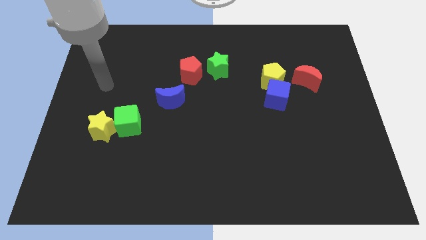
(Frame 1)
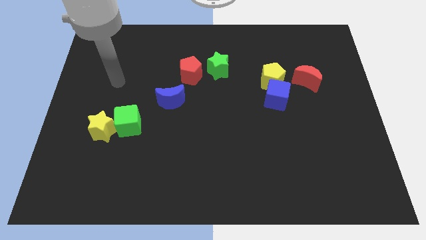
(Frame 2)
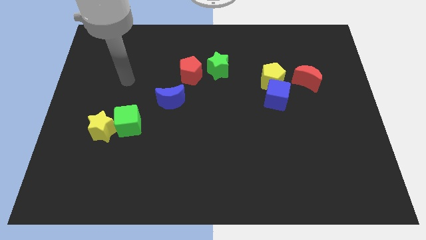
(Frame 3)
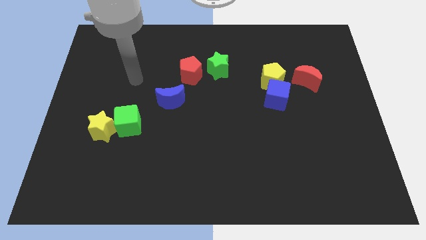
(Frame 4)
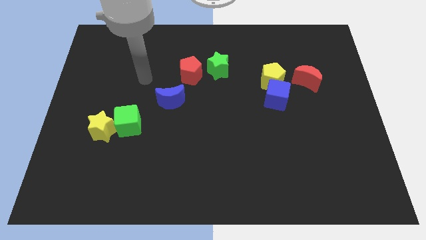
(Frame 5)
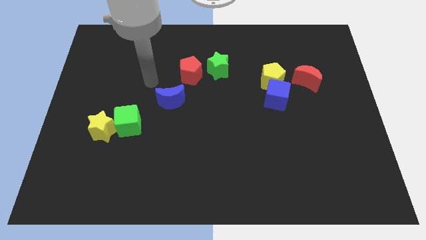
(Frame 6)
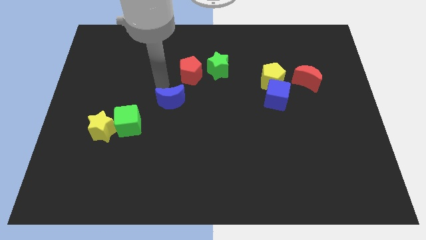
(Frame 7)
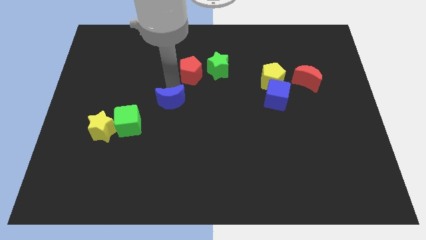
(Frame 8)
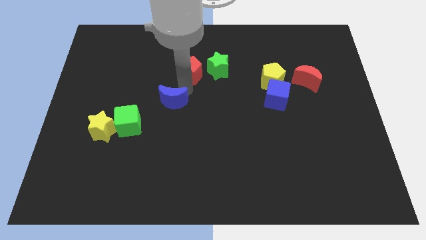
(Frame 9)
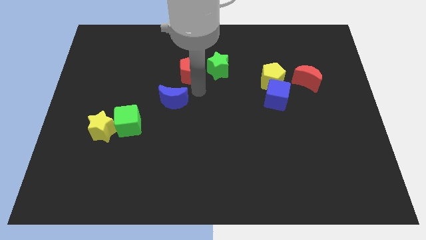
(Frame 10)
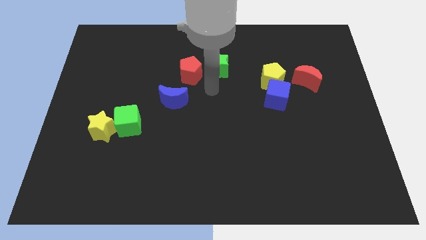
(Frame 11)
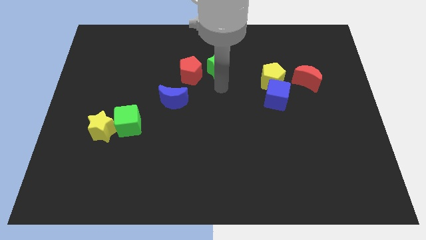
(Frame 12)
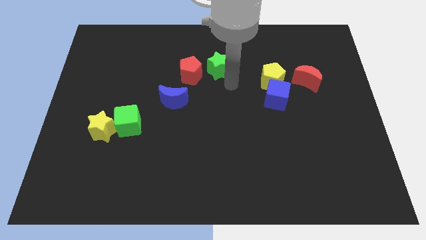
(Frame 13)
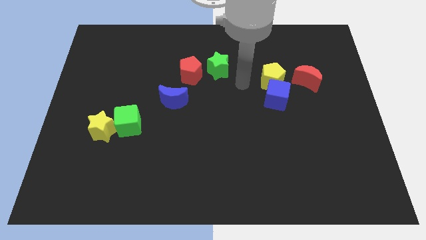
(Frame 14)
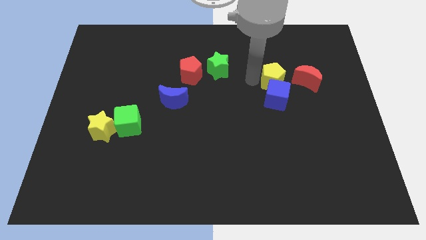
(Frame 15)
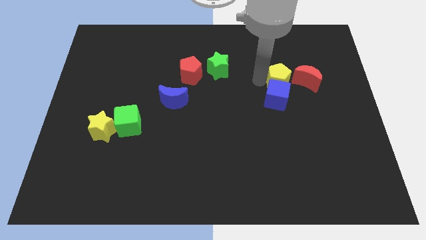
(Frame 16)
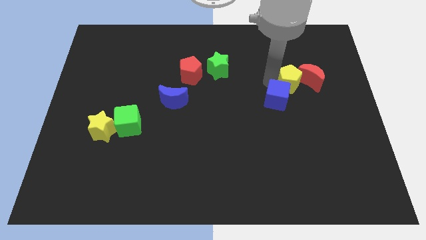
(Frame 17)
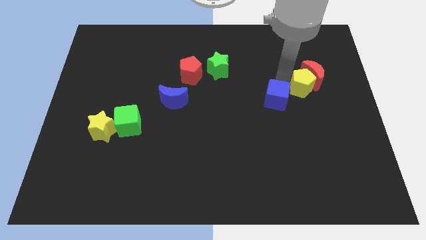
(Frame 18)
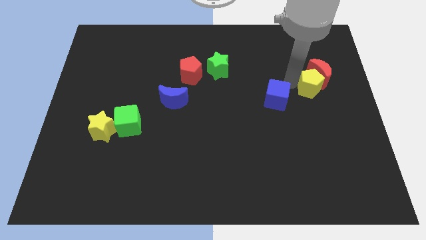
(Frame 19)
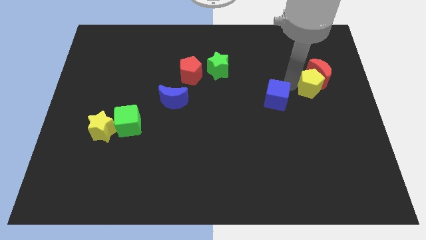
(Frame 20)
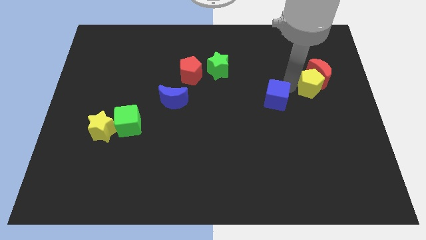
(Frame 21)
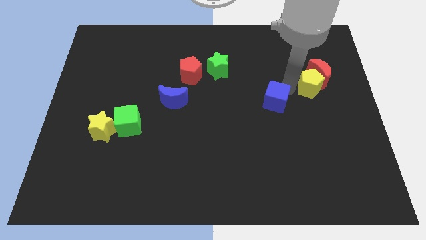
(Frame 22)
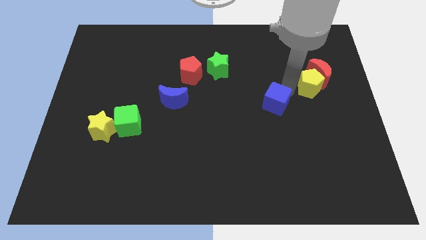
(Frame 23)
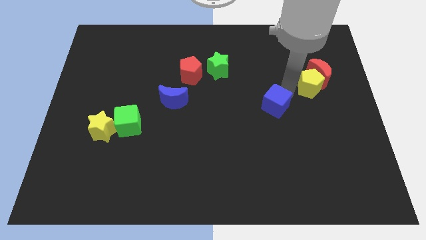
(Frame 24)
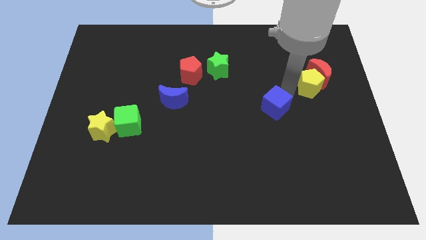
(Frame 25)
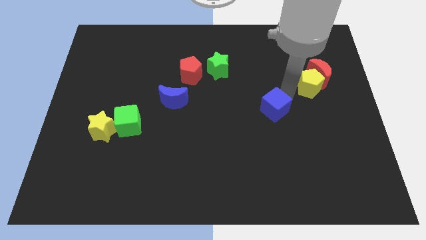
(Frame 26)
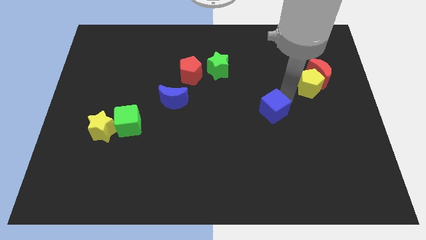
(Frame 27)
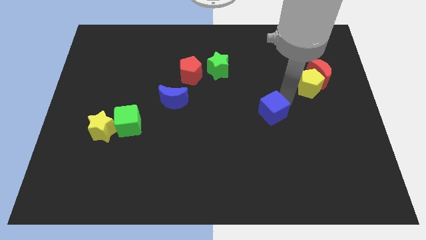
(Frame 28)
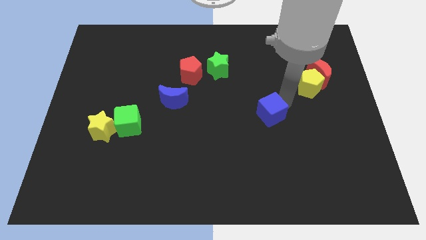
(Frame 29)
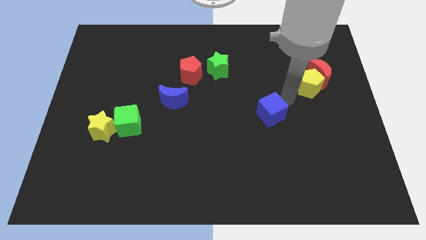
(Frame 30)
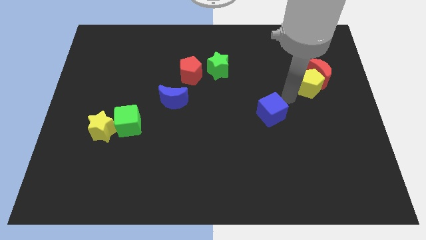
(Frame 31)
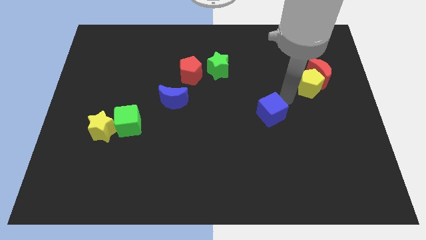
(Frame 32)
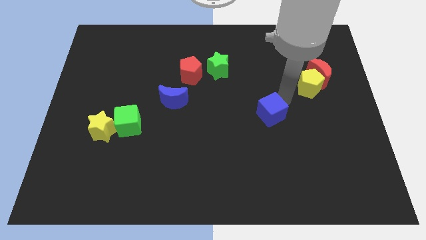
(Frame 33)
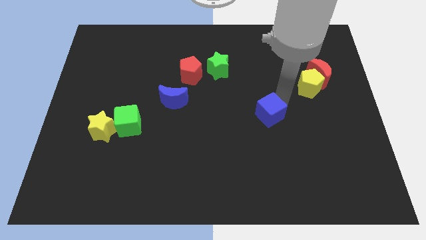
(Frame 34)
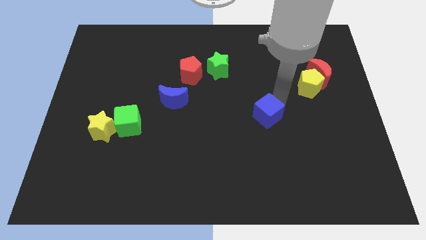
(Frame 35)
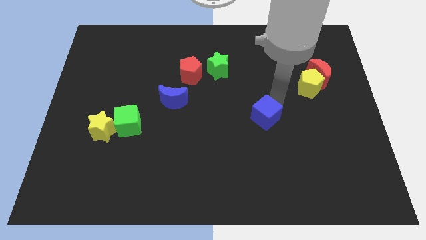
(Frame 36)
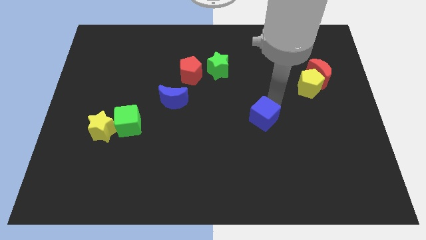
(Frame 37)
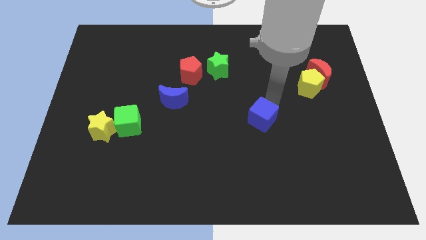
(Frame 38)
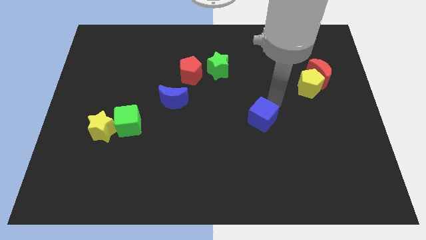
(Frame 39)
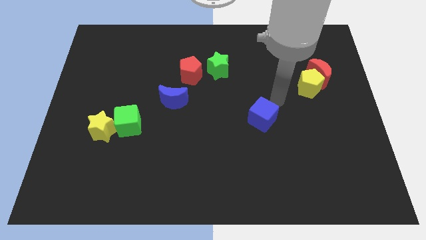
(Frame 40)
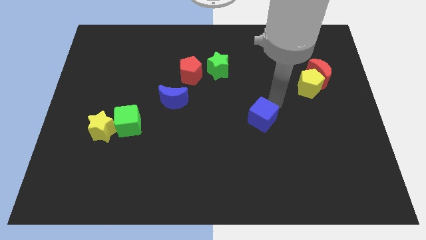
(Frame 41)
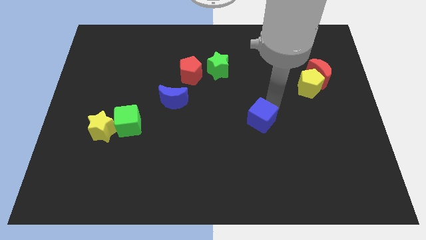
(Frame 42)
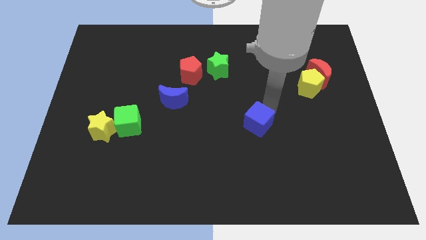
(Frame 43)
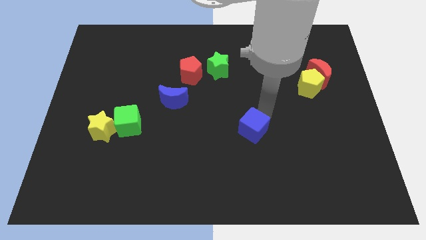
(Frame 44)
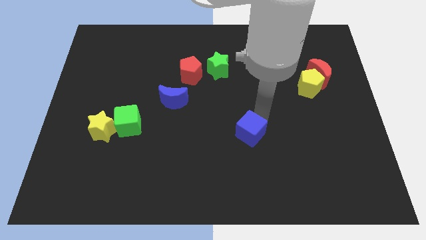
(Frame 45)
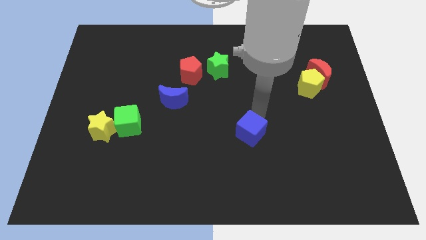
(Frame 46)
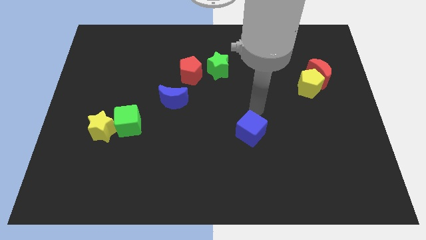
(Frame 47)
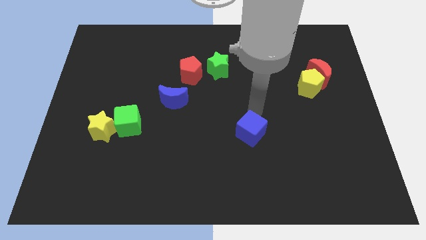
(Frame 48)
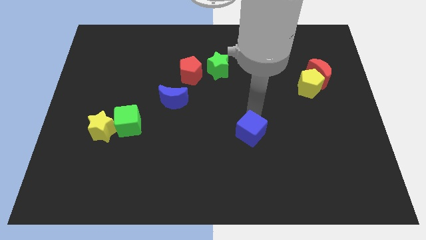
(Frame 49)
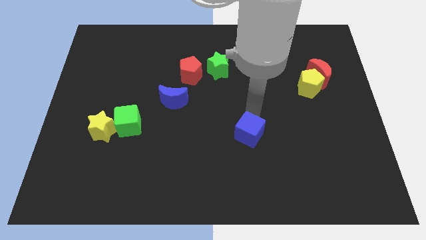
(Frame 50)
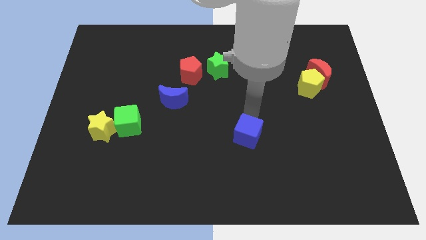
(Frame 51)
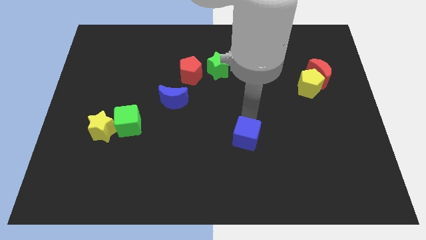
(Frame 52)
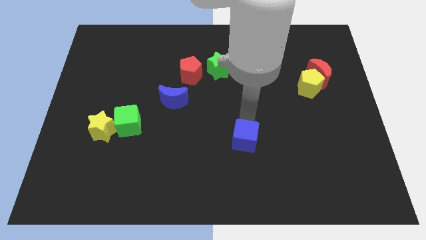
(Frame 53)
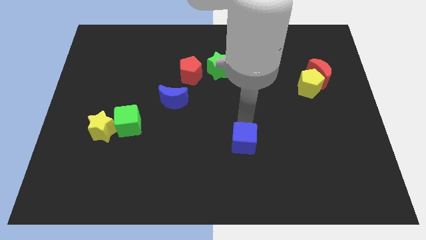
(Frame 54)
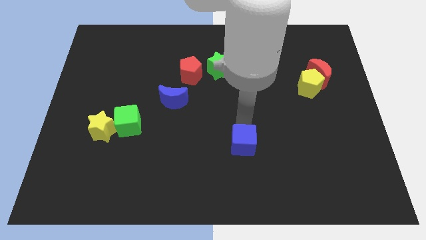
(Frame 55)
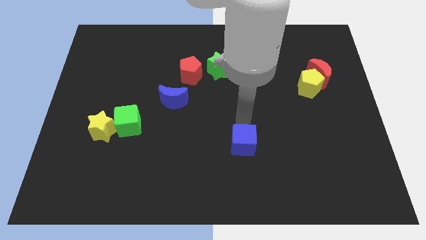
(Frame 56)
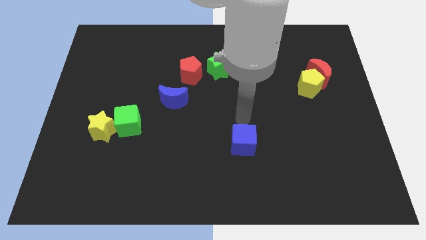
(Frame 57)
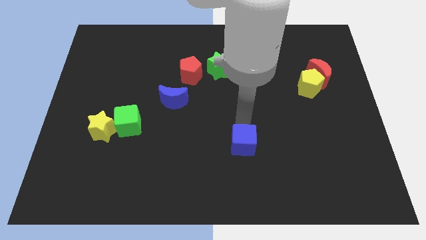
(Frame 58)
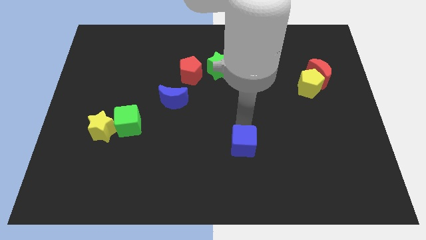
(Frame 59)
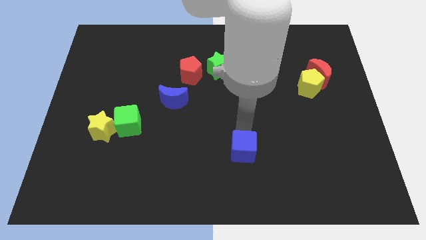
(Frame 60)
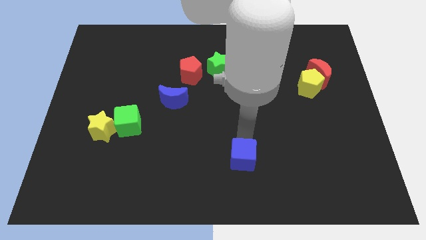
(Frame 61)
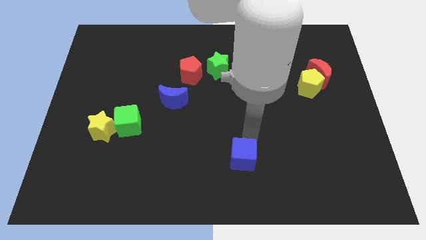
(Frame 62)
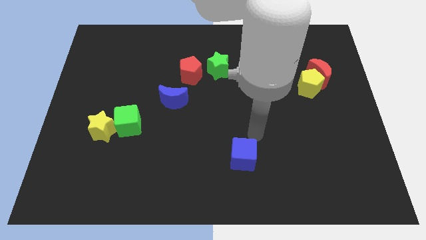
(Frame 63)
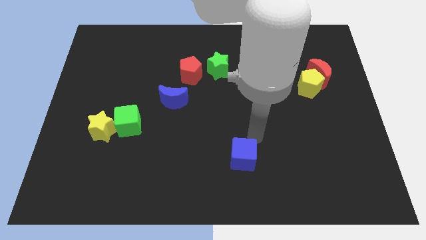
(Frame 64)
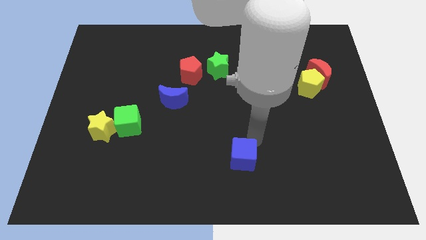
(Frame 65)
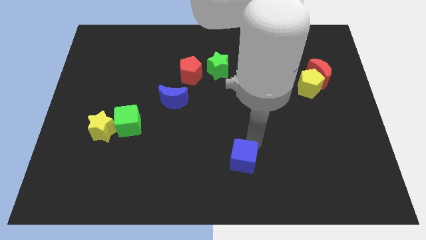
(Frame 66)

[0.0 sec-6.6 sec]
move the blue cube to the bottom side

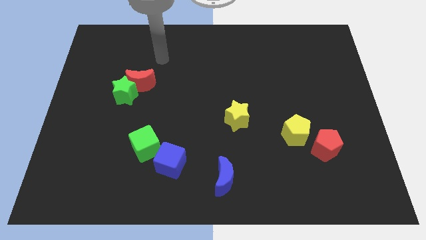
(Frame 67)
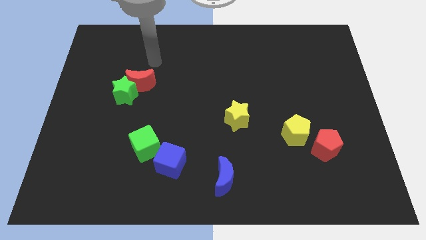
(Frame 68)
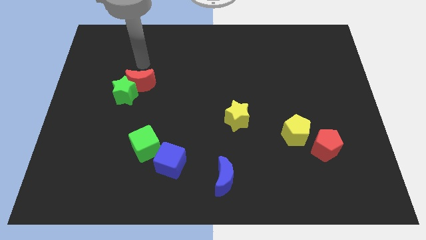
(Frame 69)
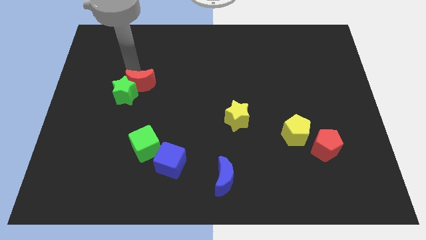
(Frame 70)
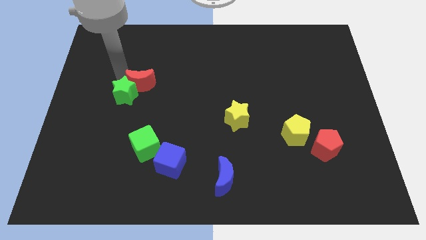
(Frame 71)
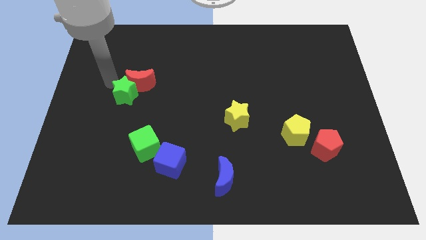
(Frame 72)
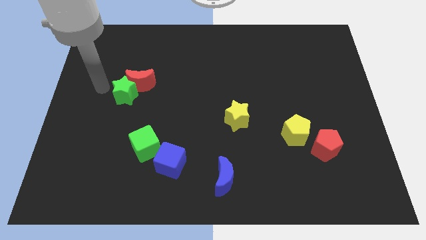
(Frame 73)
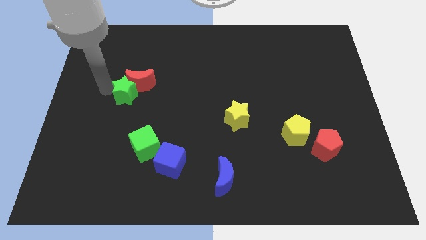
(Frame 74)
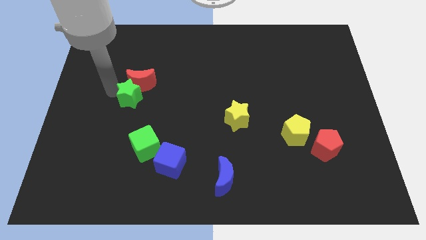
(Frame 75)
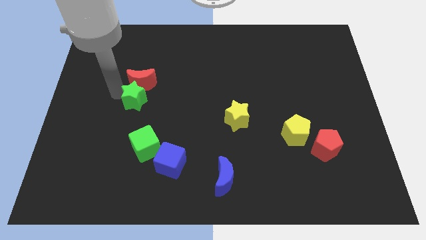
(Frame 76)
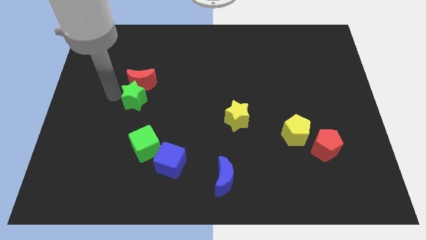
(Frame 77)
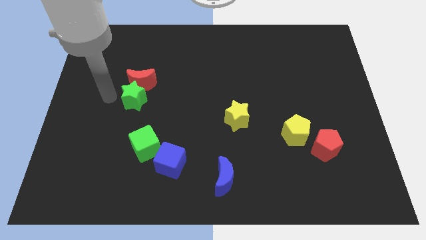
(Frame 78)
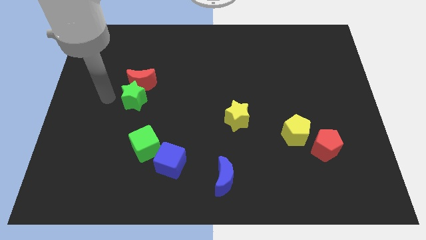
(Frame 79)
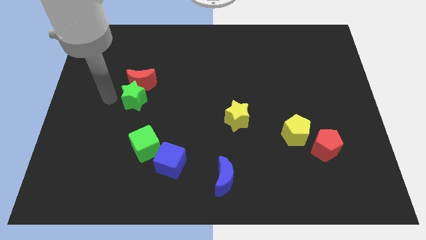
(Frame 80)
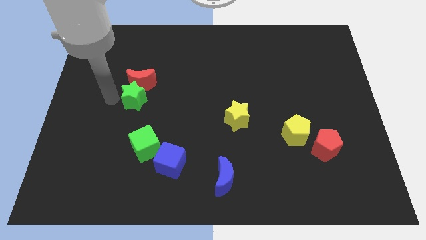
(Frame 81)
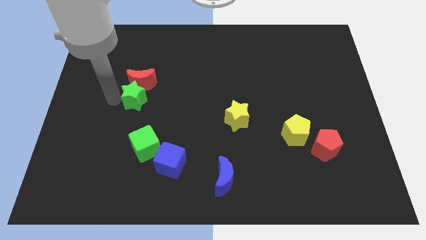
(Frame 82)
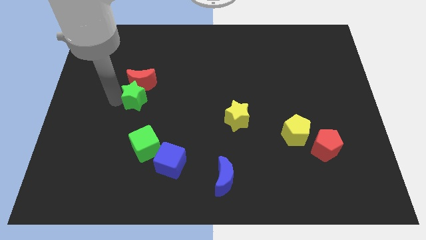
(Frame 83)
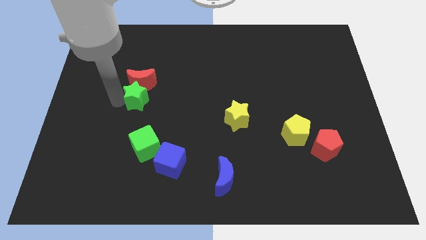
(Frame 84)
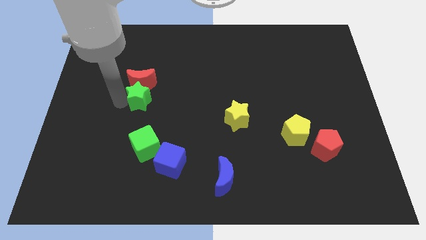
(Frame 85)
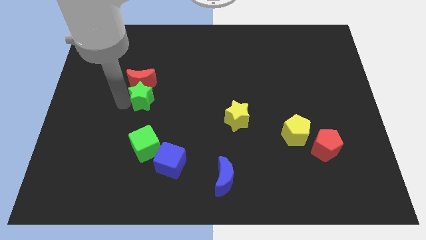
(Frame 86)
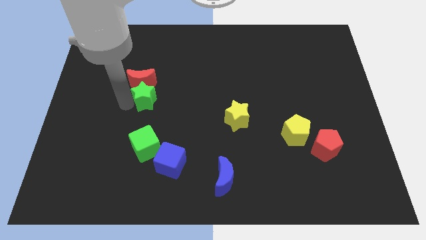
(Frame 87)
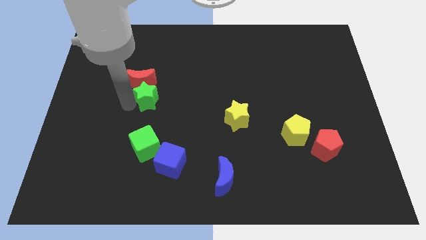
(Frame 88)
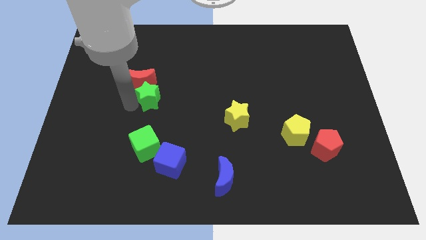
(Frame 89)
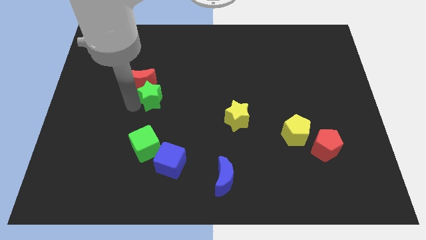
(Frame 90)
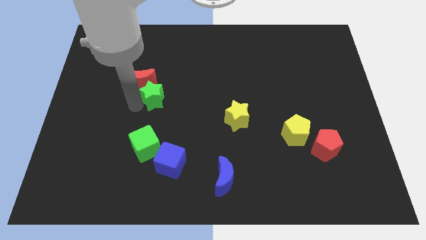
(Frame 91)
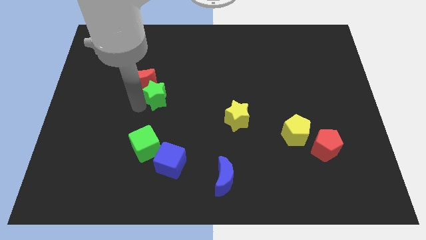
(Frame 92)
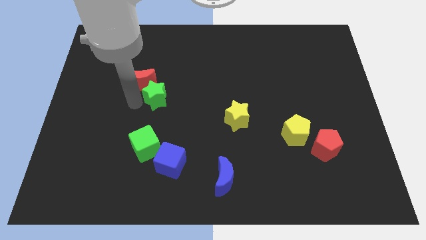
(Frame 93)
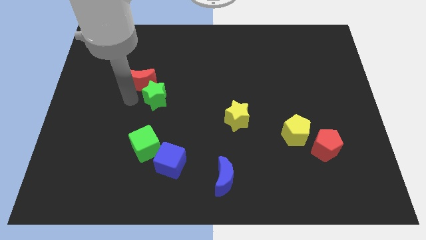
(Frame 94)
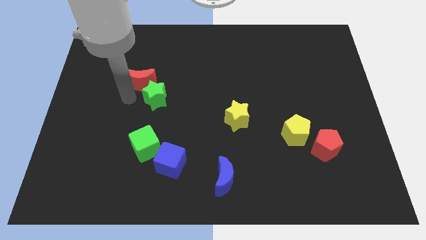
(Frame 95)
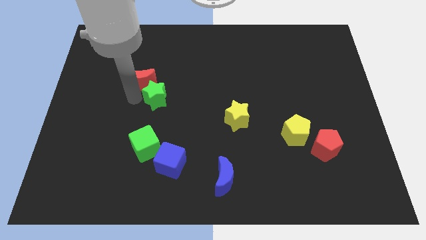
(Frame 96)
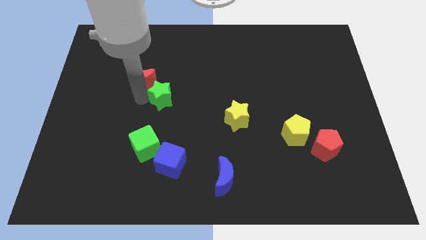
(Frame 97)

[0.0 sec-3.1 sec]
slide the green star to the middle of the board
